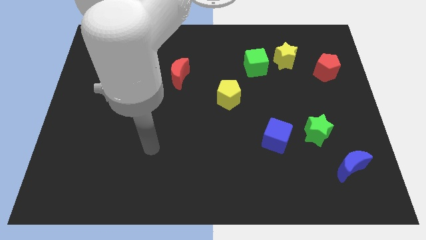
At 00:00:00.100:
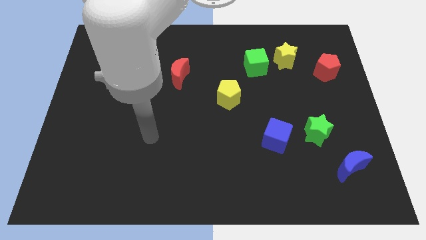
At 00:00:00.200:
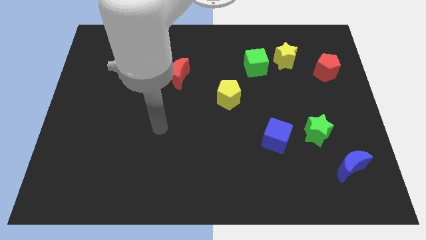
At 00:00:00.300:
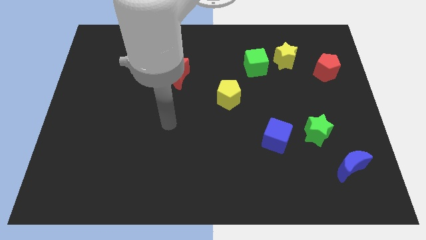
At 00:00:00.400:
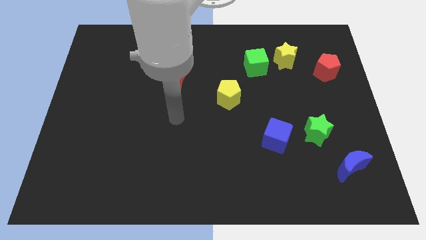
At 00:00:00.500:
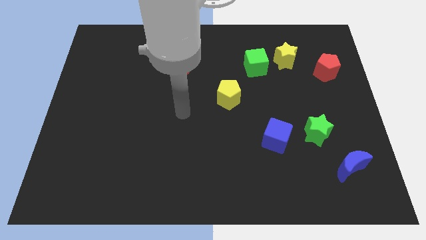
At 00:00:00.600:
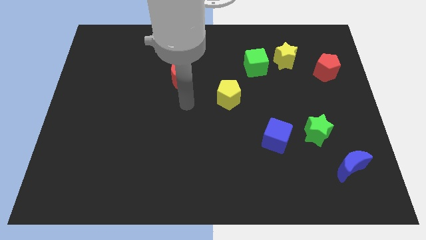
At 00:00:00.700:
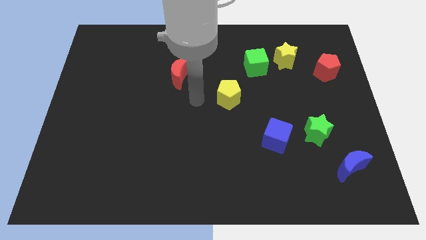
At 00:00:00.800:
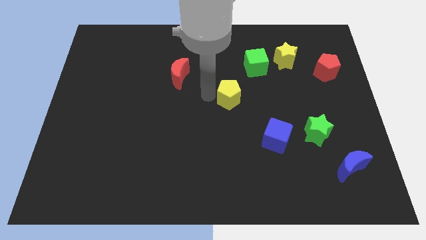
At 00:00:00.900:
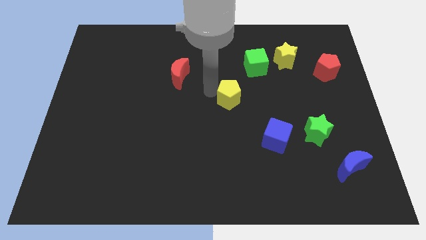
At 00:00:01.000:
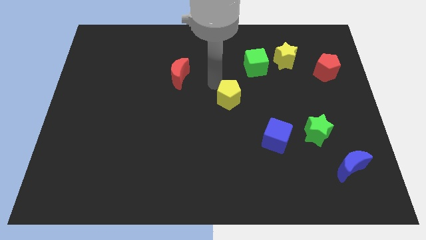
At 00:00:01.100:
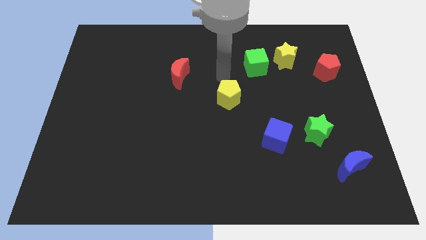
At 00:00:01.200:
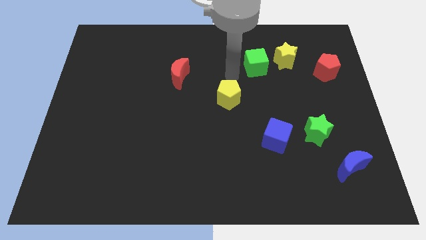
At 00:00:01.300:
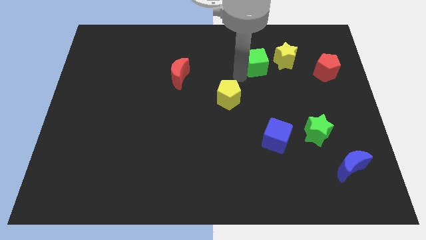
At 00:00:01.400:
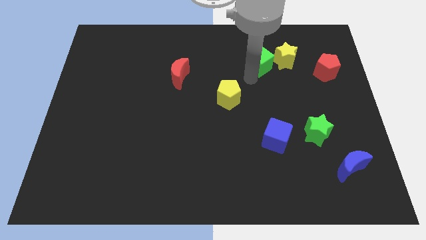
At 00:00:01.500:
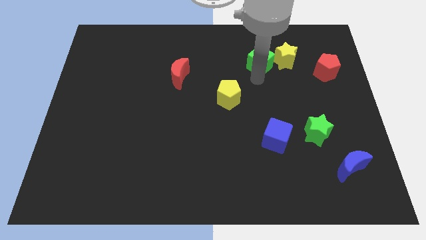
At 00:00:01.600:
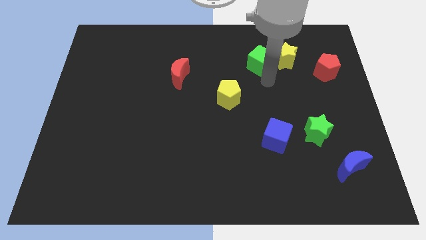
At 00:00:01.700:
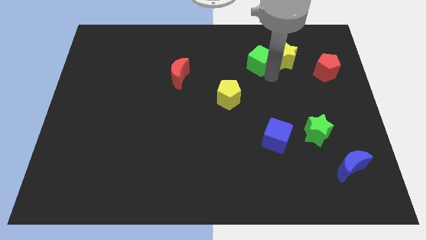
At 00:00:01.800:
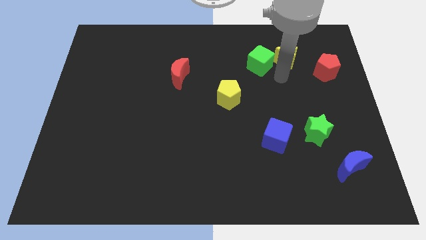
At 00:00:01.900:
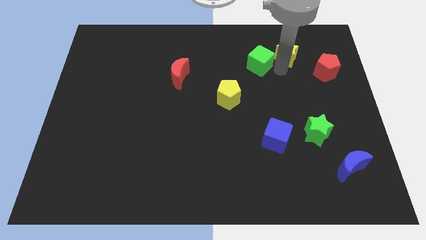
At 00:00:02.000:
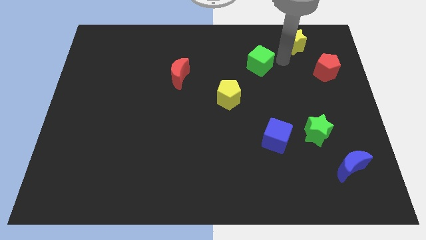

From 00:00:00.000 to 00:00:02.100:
move the green cube away from the yellow star

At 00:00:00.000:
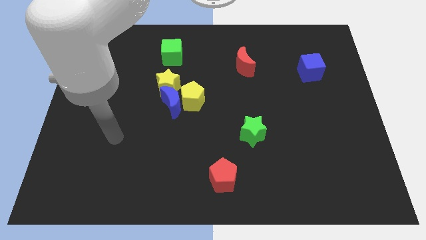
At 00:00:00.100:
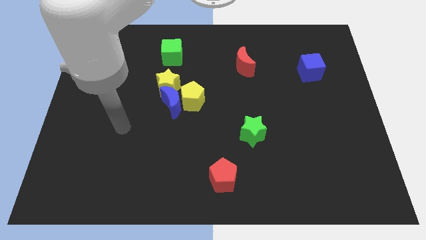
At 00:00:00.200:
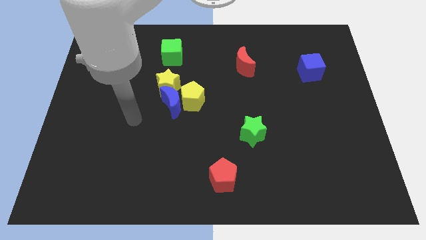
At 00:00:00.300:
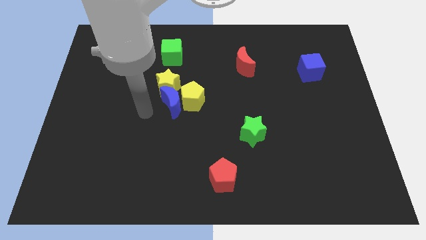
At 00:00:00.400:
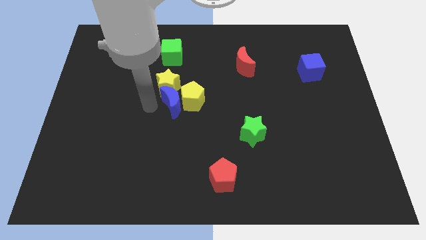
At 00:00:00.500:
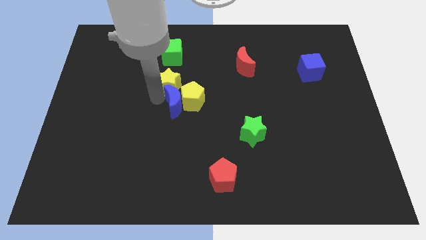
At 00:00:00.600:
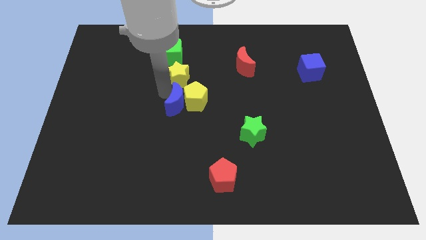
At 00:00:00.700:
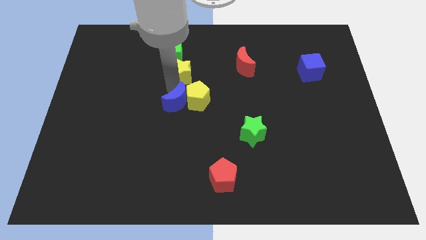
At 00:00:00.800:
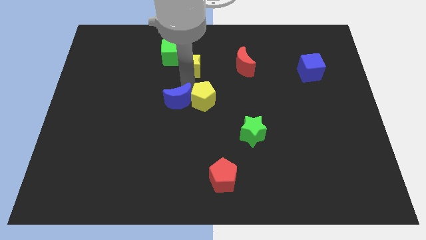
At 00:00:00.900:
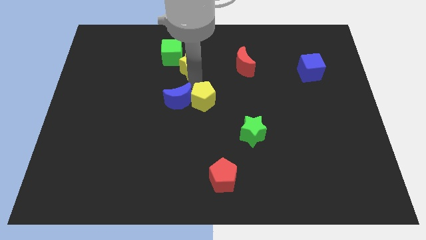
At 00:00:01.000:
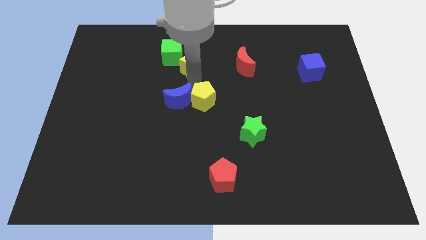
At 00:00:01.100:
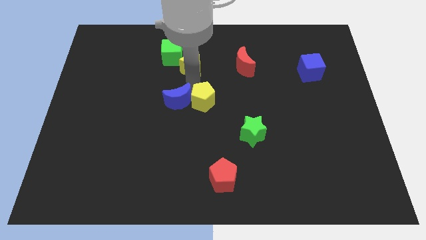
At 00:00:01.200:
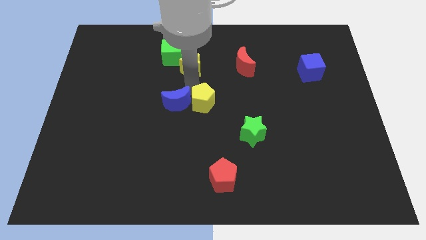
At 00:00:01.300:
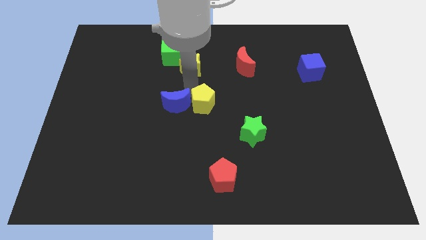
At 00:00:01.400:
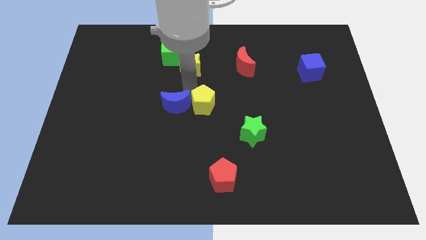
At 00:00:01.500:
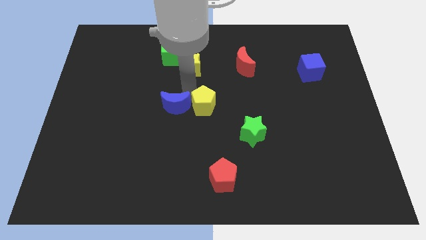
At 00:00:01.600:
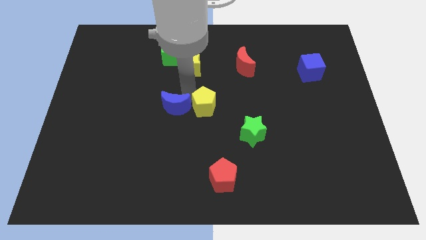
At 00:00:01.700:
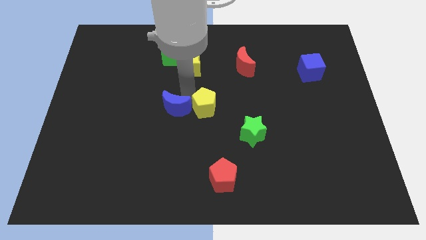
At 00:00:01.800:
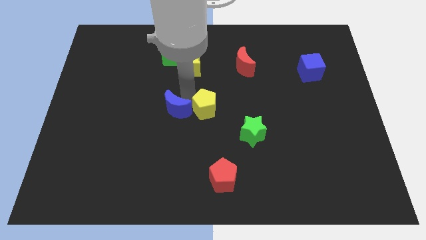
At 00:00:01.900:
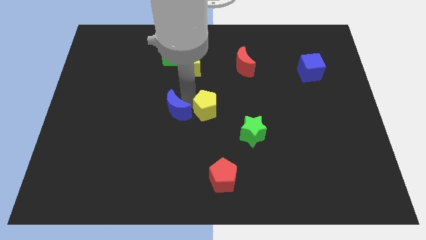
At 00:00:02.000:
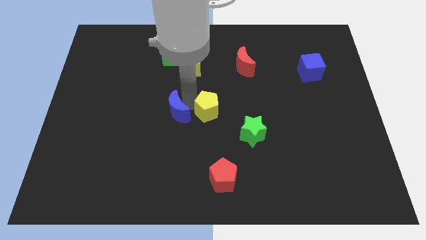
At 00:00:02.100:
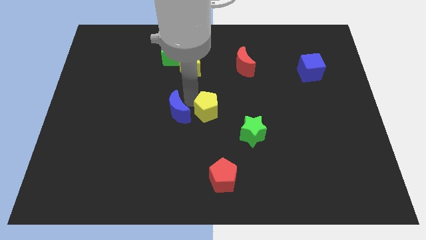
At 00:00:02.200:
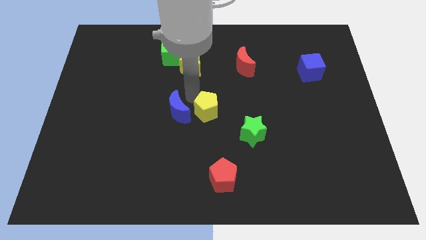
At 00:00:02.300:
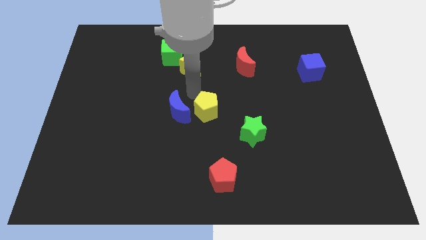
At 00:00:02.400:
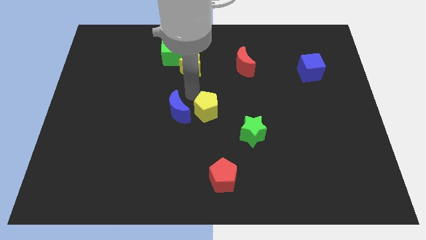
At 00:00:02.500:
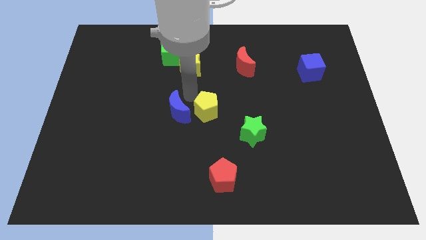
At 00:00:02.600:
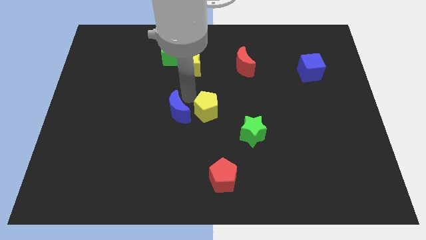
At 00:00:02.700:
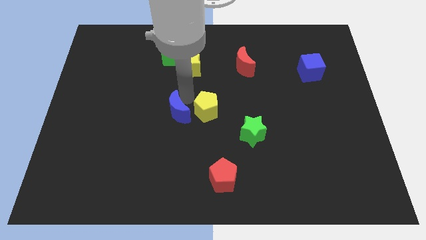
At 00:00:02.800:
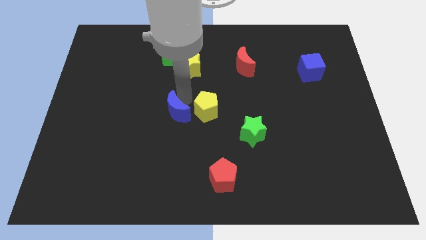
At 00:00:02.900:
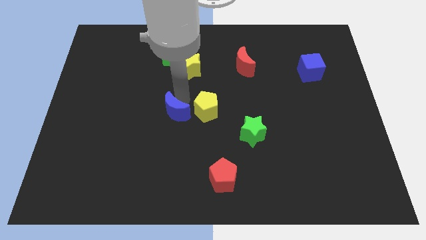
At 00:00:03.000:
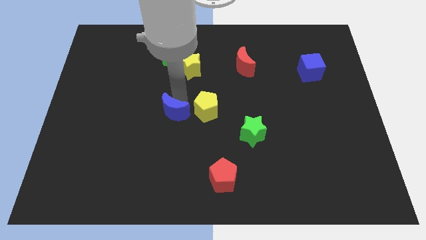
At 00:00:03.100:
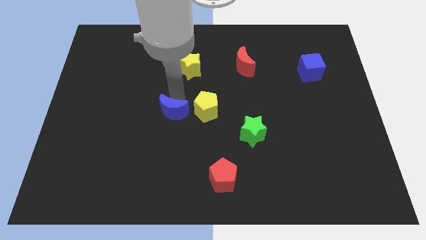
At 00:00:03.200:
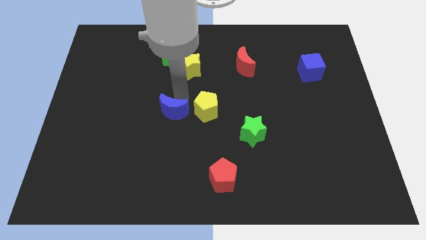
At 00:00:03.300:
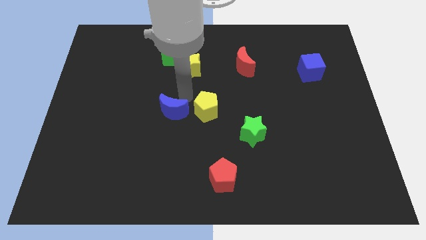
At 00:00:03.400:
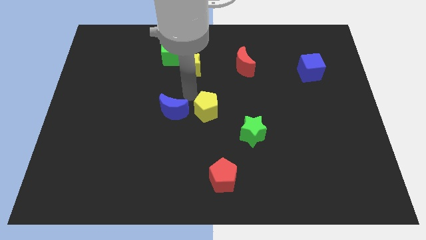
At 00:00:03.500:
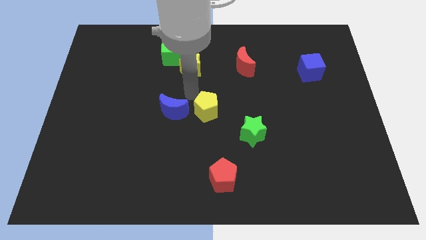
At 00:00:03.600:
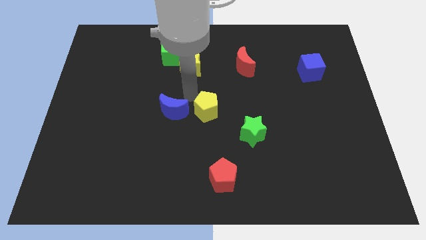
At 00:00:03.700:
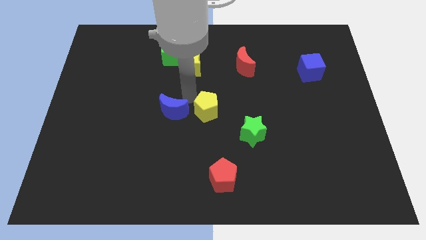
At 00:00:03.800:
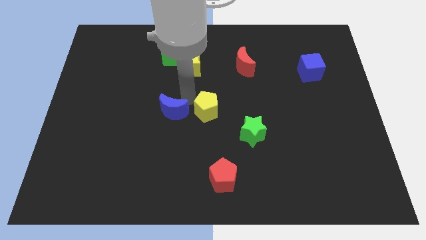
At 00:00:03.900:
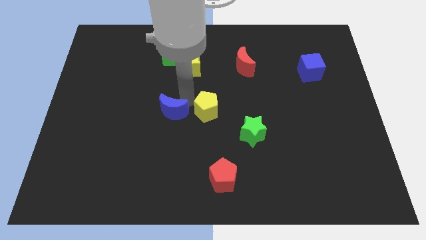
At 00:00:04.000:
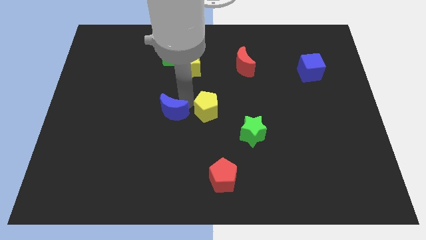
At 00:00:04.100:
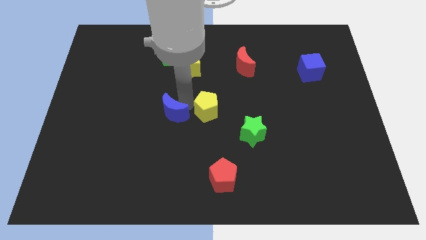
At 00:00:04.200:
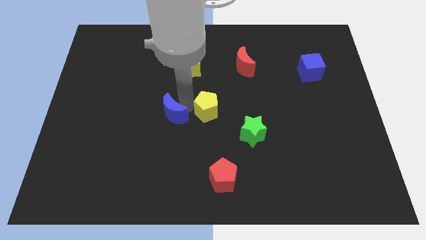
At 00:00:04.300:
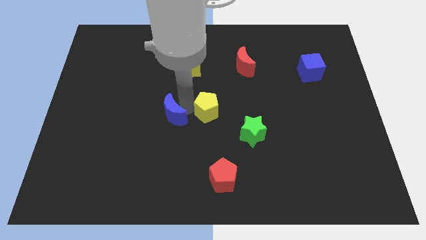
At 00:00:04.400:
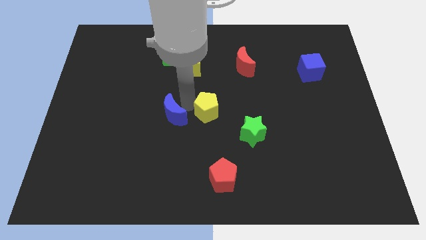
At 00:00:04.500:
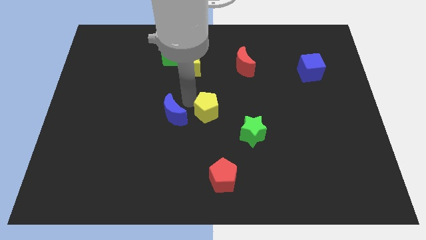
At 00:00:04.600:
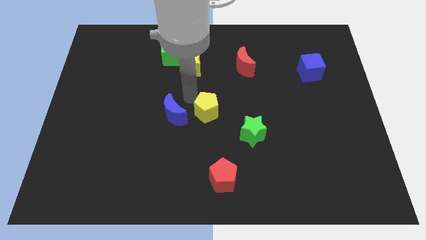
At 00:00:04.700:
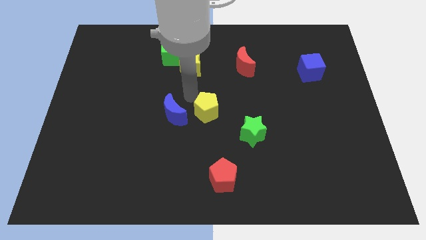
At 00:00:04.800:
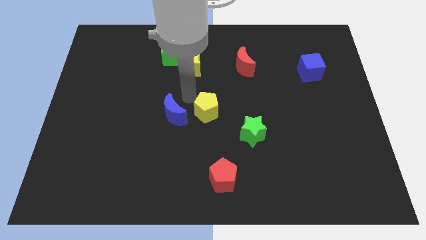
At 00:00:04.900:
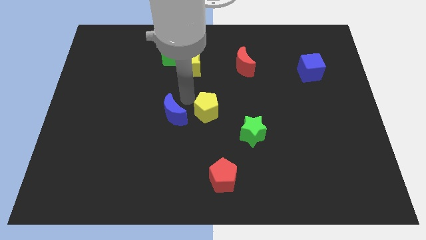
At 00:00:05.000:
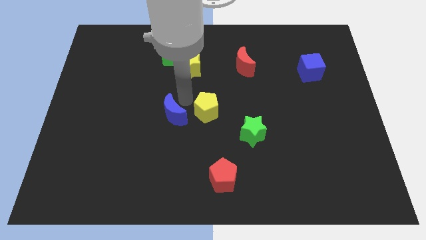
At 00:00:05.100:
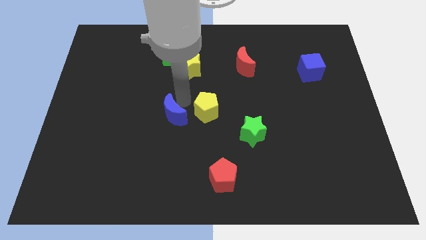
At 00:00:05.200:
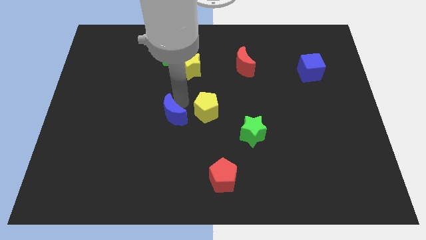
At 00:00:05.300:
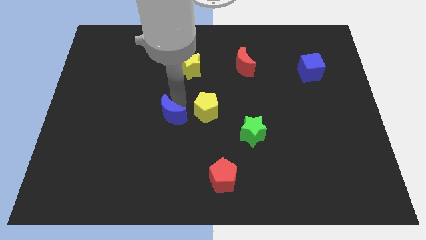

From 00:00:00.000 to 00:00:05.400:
move the blue moon away from the yellow pentagon and yellow star

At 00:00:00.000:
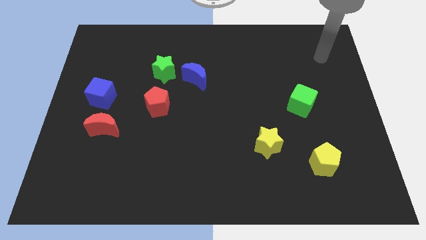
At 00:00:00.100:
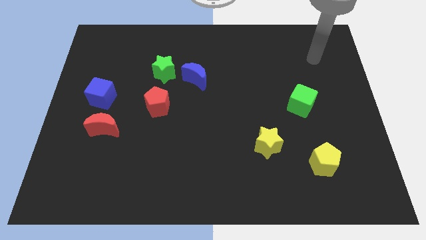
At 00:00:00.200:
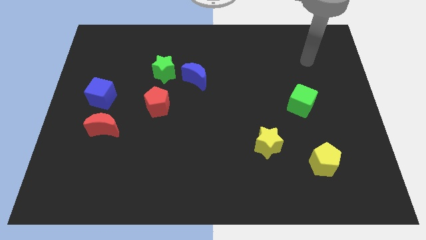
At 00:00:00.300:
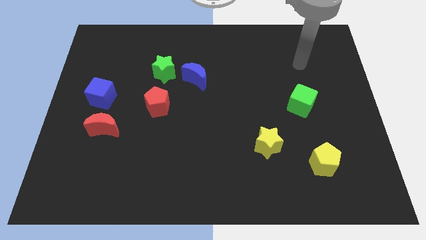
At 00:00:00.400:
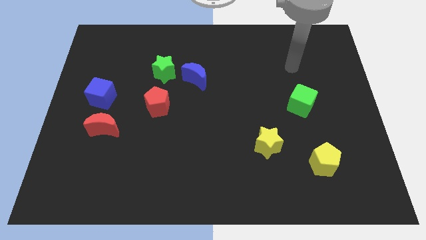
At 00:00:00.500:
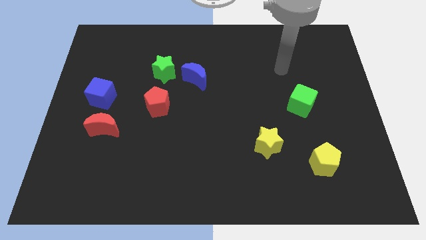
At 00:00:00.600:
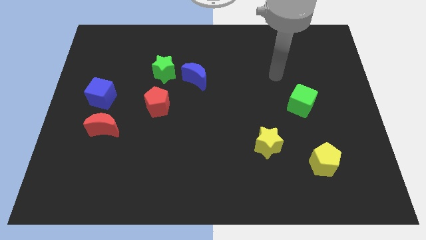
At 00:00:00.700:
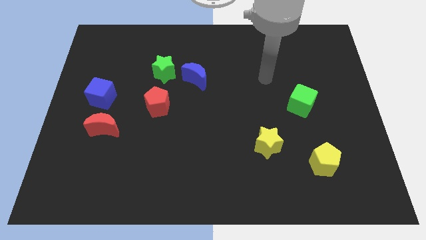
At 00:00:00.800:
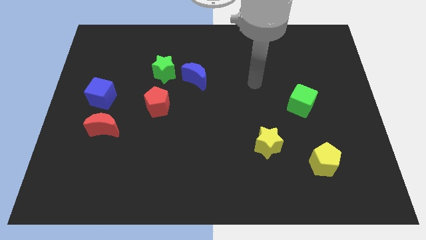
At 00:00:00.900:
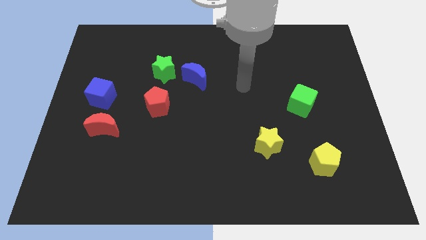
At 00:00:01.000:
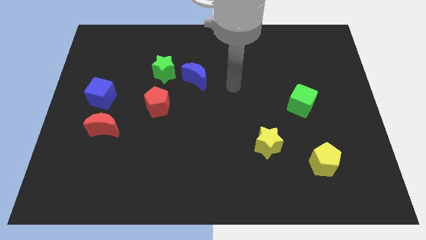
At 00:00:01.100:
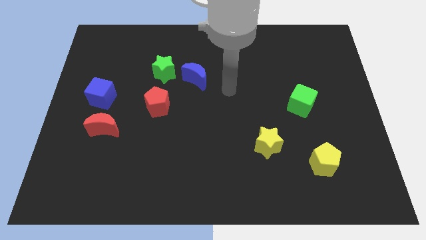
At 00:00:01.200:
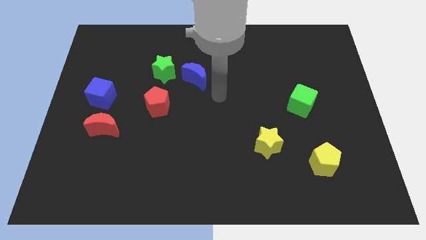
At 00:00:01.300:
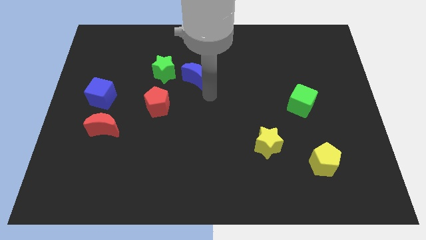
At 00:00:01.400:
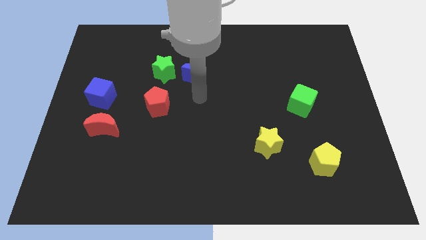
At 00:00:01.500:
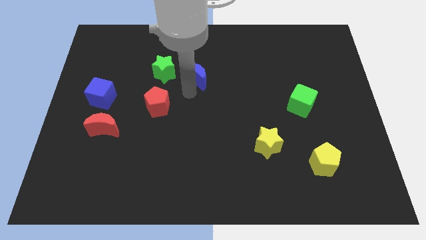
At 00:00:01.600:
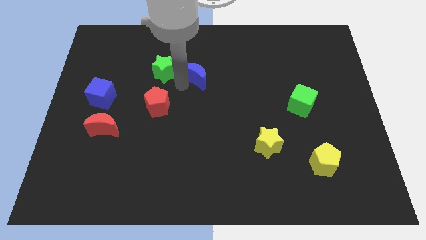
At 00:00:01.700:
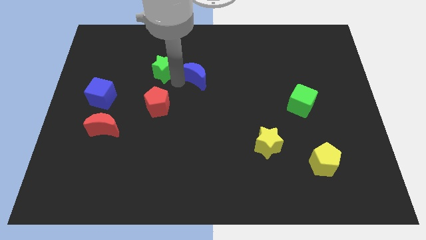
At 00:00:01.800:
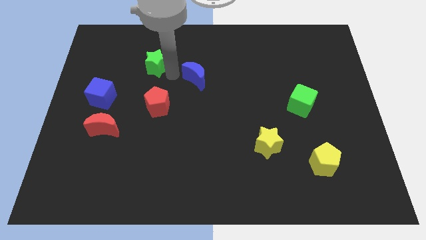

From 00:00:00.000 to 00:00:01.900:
separate the blue moon from the green star
